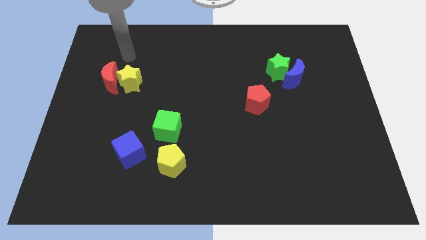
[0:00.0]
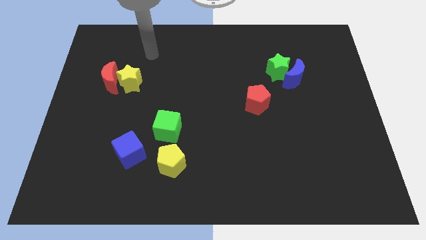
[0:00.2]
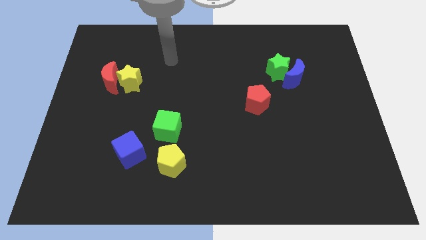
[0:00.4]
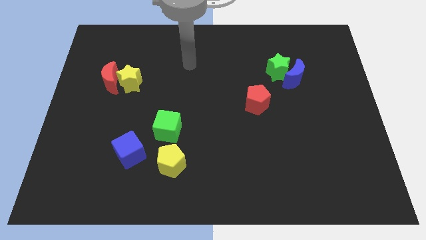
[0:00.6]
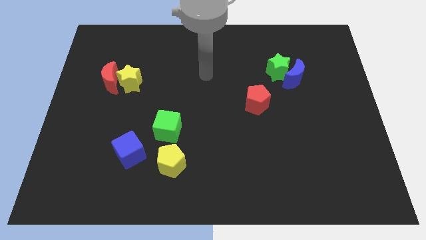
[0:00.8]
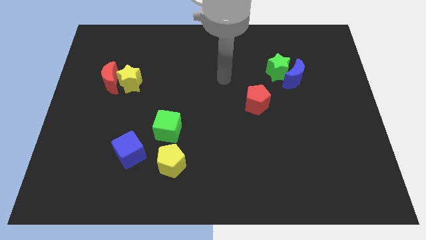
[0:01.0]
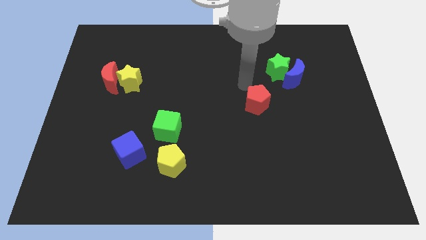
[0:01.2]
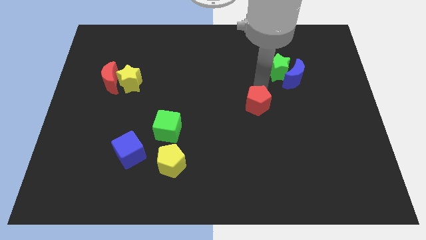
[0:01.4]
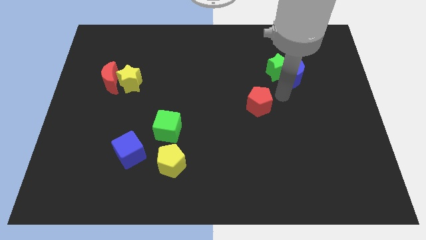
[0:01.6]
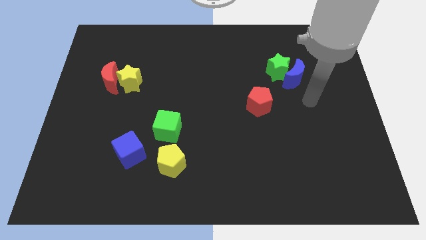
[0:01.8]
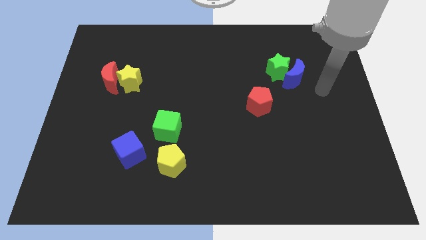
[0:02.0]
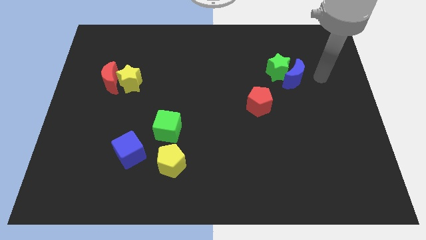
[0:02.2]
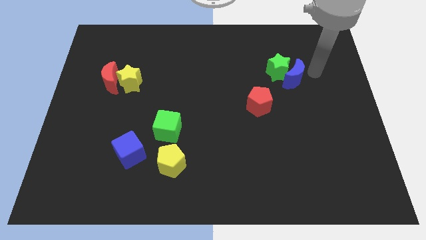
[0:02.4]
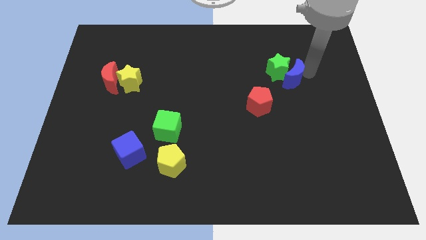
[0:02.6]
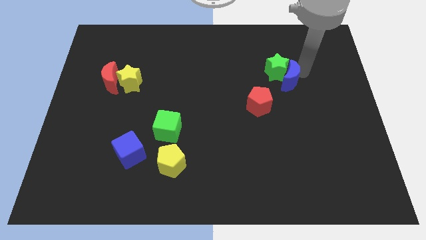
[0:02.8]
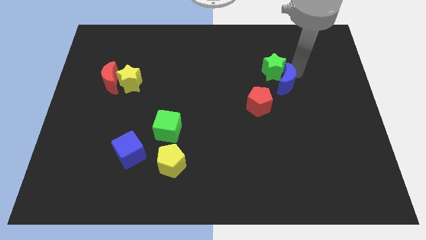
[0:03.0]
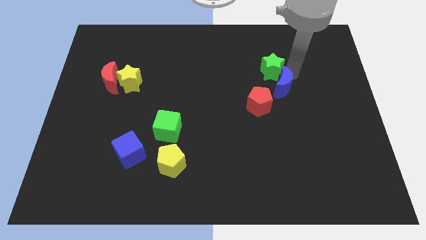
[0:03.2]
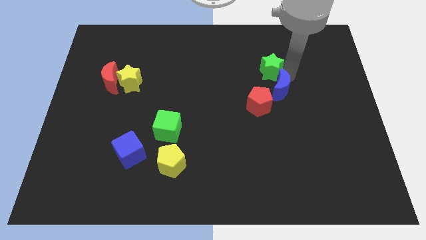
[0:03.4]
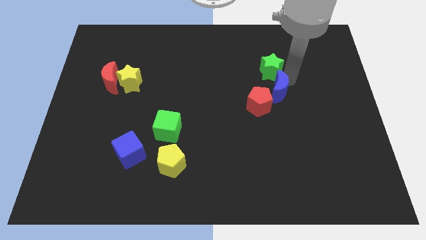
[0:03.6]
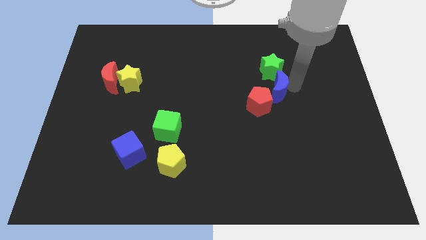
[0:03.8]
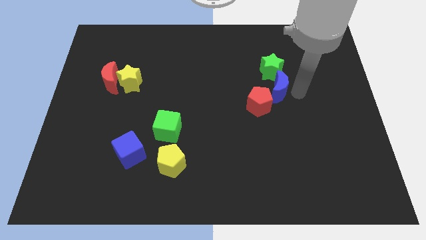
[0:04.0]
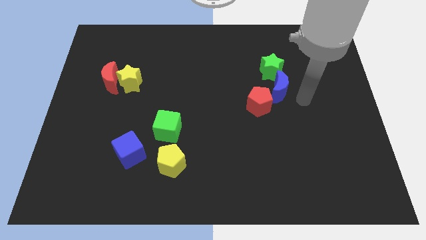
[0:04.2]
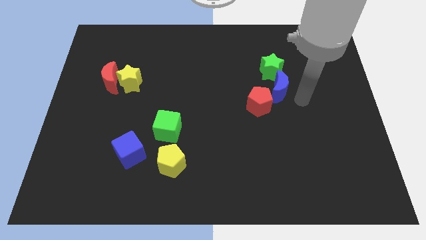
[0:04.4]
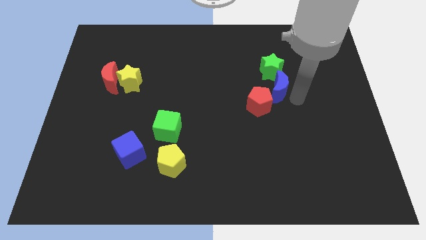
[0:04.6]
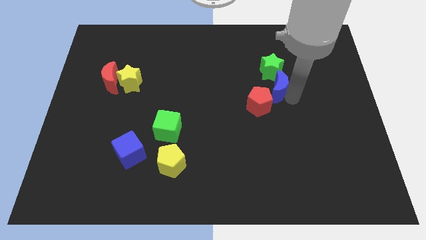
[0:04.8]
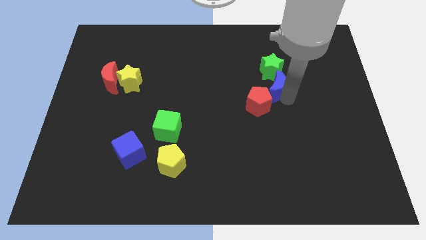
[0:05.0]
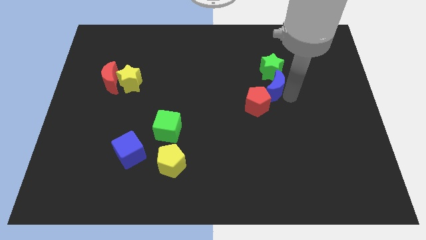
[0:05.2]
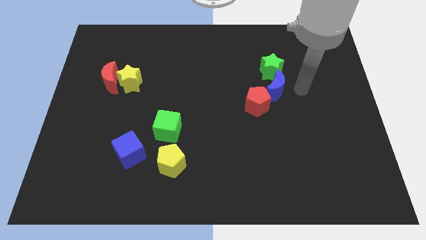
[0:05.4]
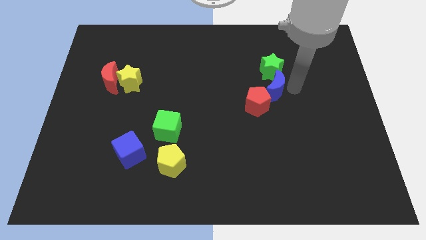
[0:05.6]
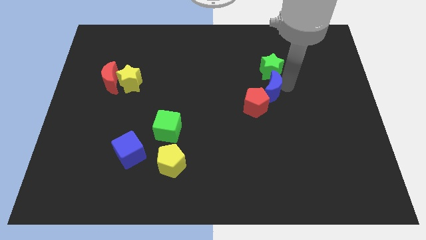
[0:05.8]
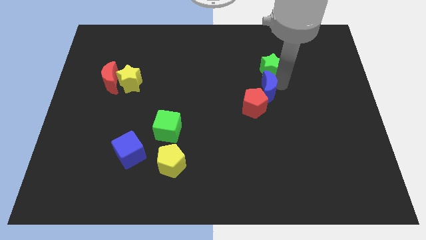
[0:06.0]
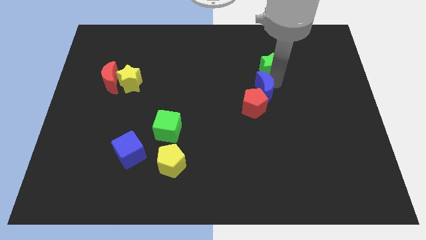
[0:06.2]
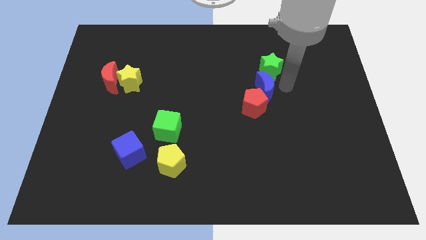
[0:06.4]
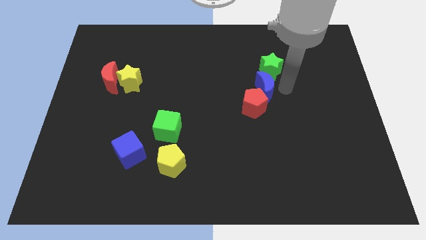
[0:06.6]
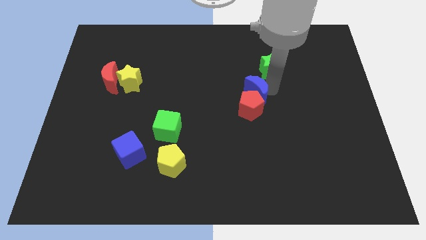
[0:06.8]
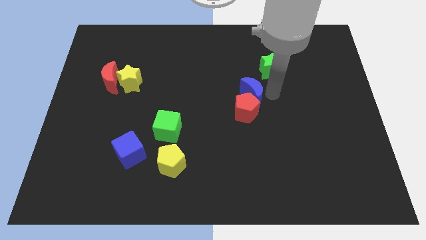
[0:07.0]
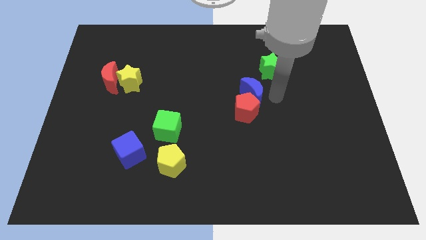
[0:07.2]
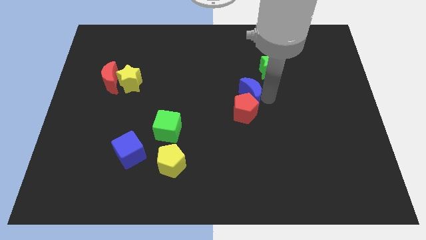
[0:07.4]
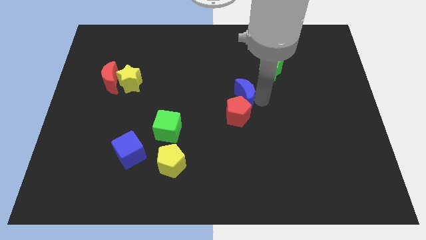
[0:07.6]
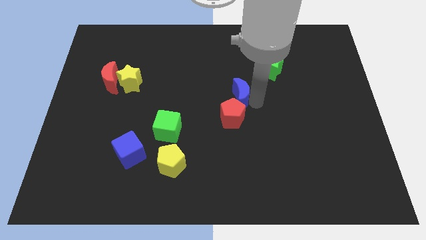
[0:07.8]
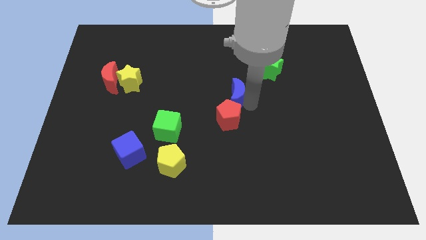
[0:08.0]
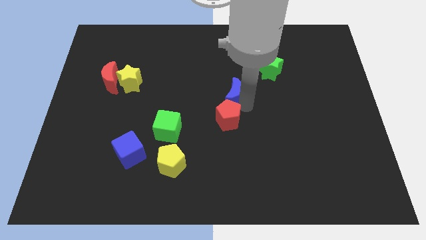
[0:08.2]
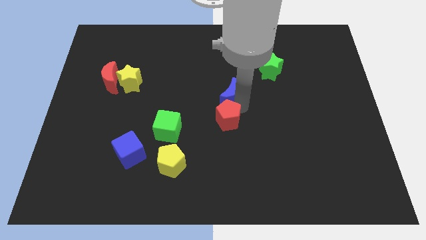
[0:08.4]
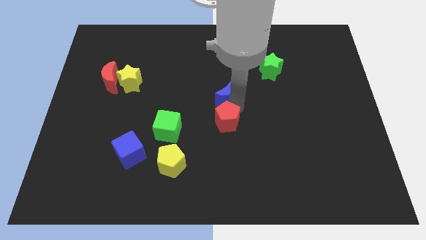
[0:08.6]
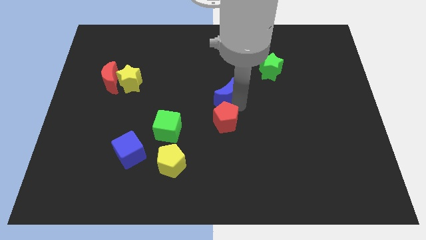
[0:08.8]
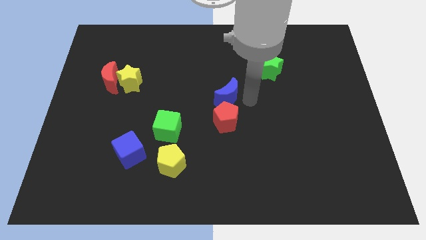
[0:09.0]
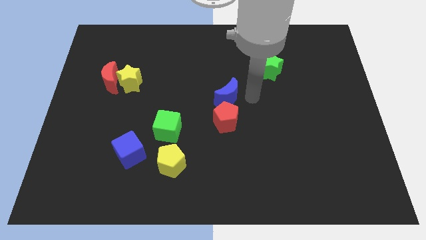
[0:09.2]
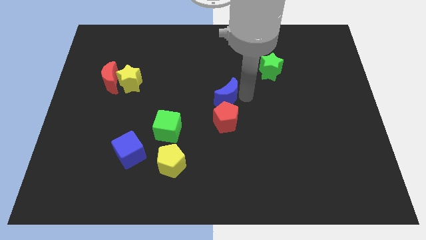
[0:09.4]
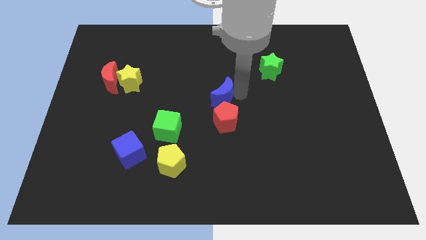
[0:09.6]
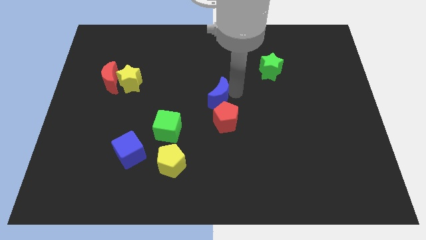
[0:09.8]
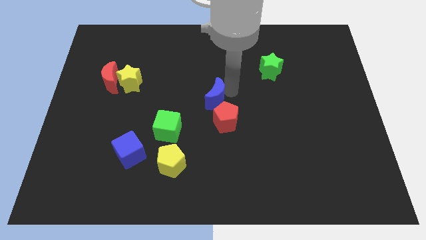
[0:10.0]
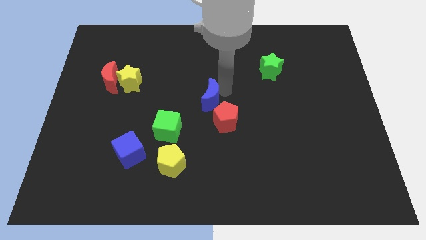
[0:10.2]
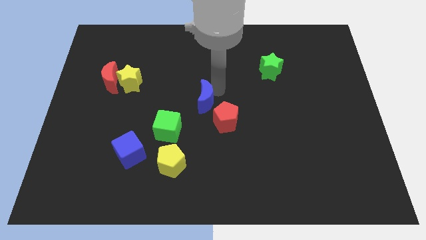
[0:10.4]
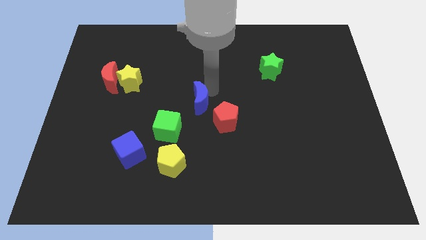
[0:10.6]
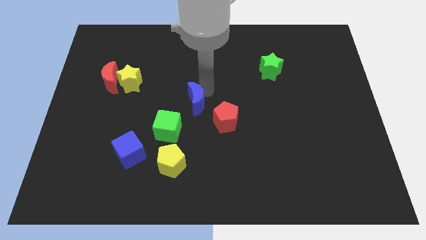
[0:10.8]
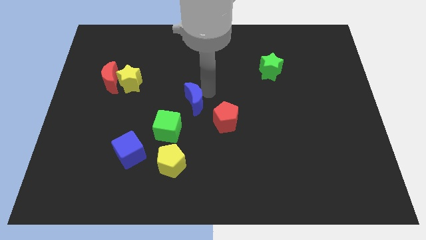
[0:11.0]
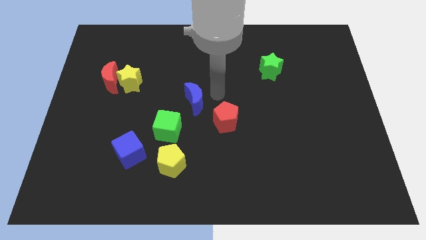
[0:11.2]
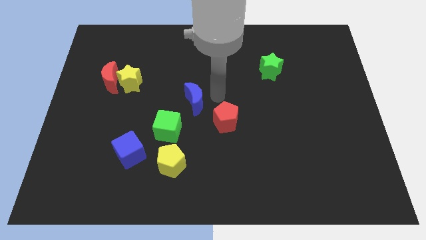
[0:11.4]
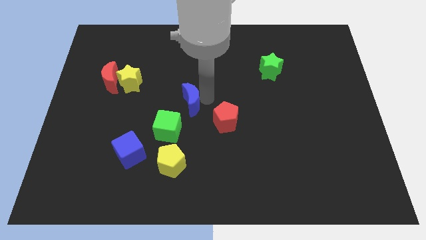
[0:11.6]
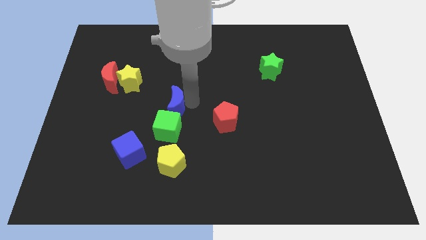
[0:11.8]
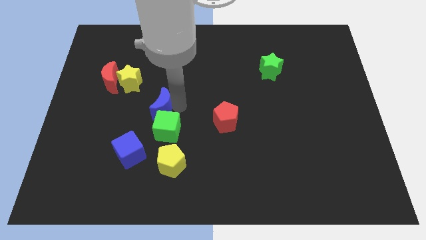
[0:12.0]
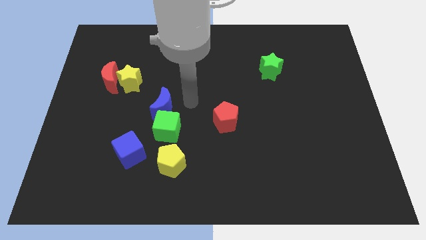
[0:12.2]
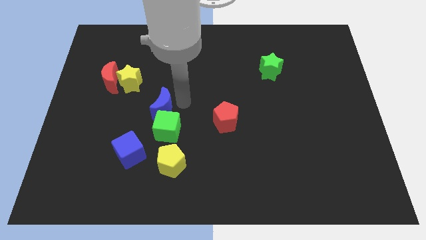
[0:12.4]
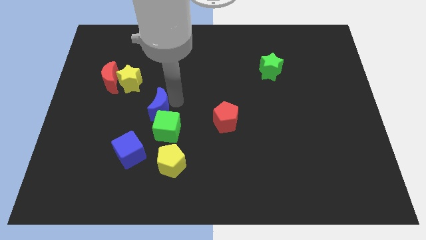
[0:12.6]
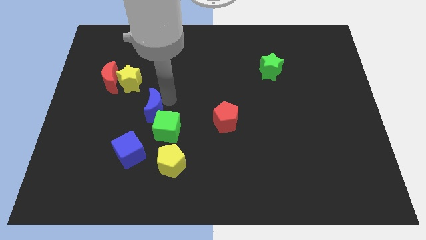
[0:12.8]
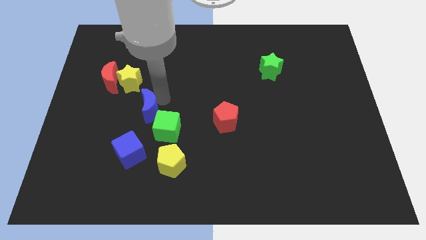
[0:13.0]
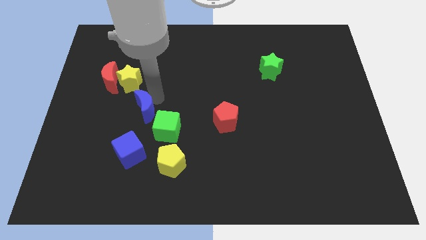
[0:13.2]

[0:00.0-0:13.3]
move the blue moon to the bottom side of the yellow star

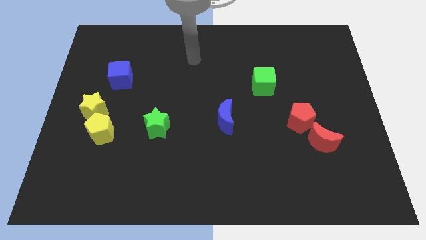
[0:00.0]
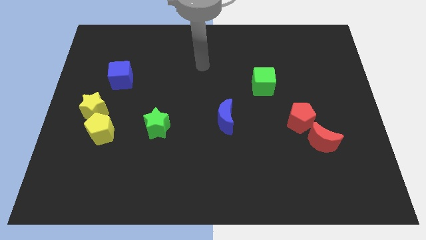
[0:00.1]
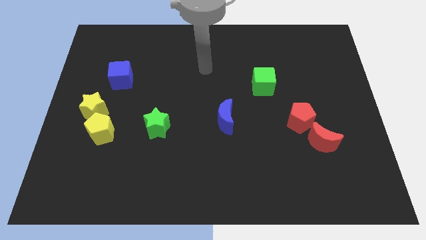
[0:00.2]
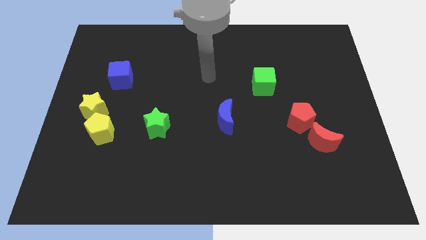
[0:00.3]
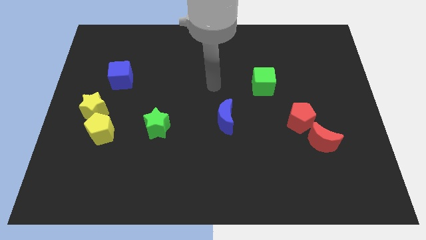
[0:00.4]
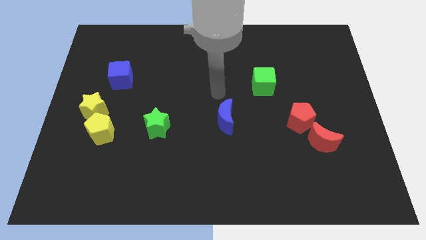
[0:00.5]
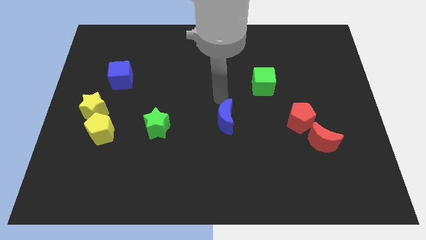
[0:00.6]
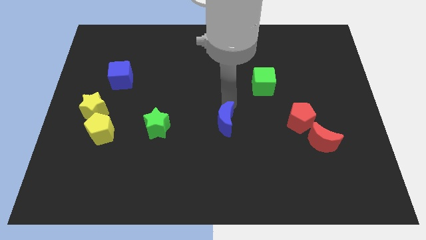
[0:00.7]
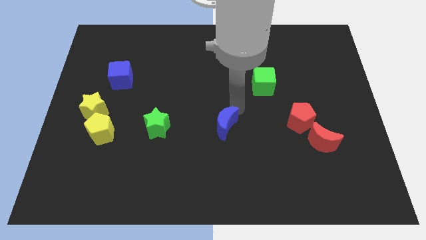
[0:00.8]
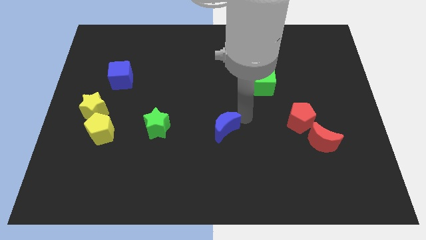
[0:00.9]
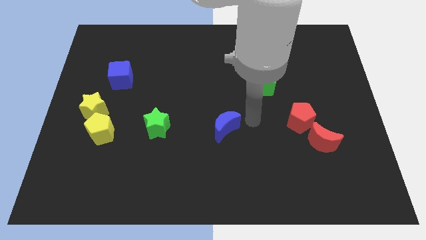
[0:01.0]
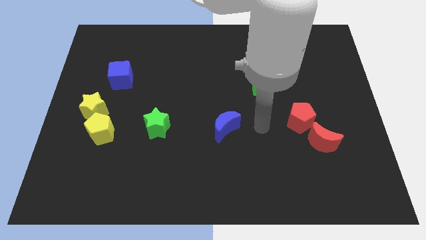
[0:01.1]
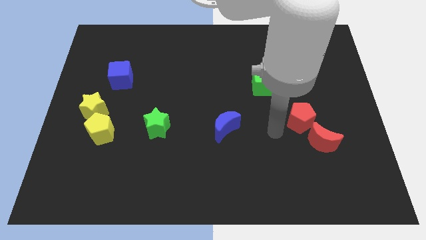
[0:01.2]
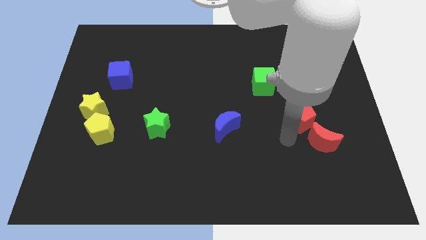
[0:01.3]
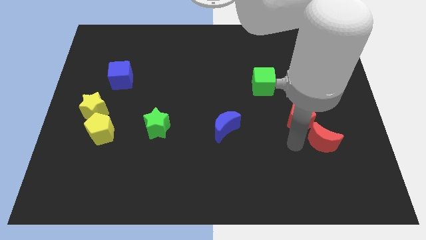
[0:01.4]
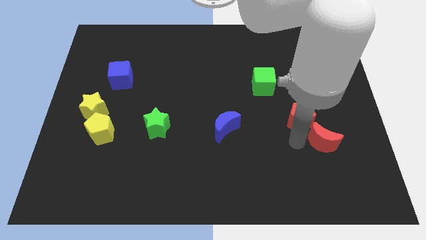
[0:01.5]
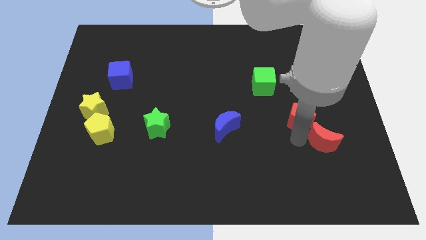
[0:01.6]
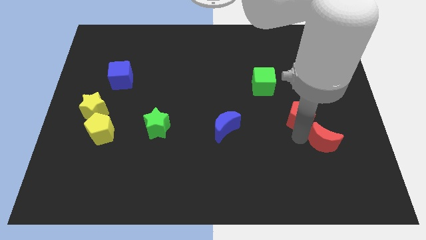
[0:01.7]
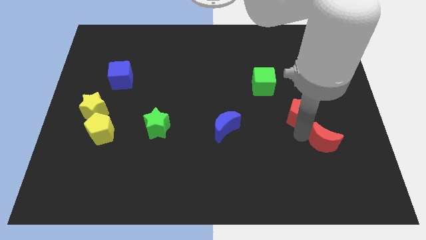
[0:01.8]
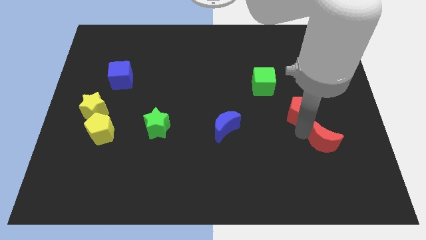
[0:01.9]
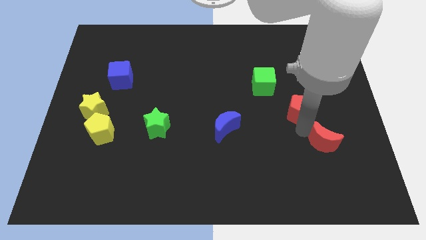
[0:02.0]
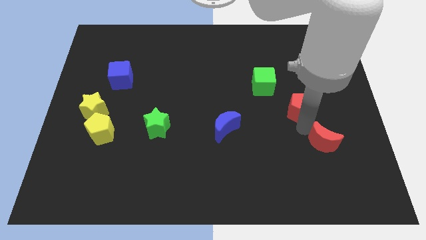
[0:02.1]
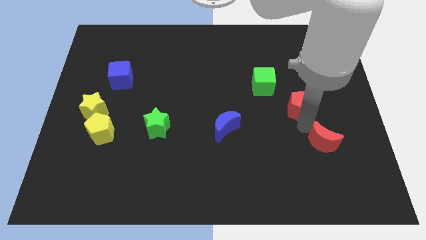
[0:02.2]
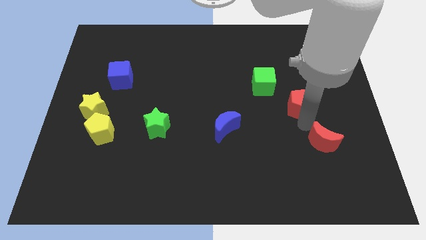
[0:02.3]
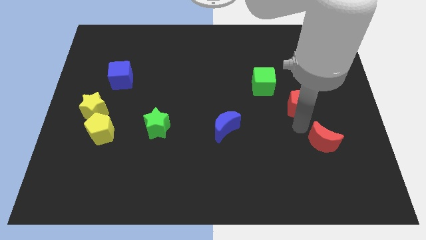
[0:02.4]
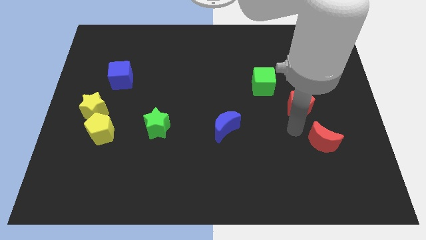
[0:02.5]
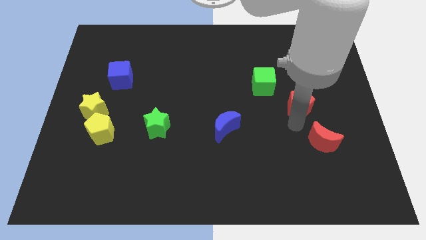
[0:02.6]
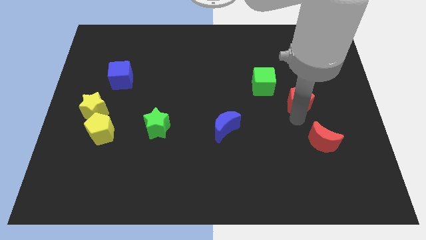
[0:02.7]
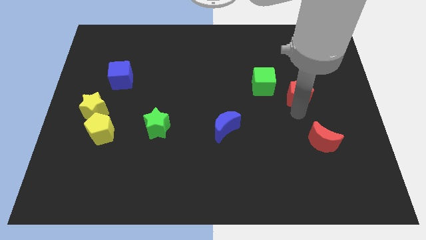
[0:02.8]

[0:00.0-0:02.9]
push the red pentagon just right of the green cube
